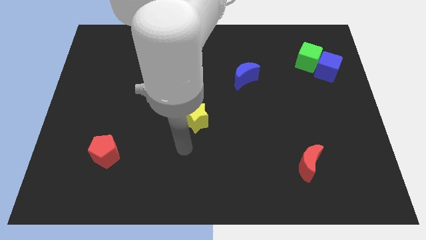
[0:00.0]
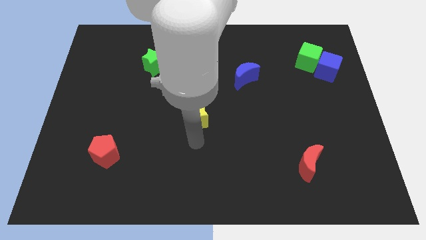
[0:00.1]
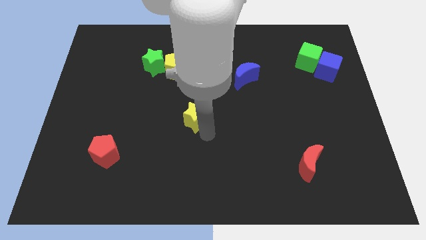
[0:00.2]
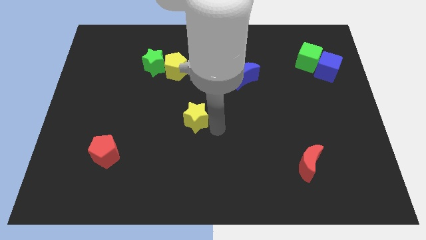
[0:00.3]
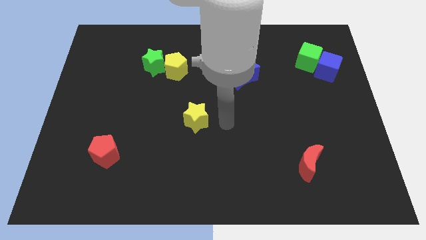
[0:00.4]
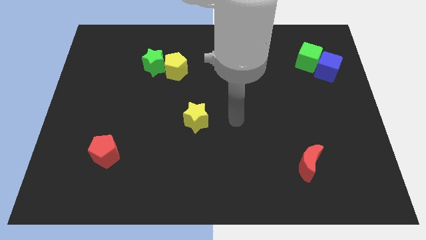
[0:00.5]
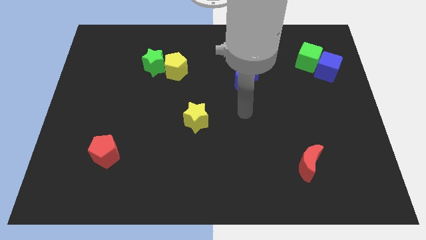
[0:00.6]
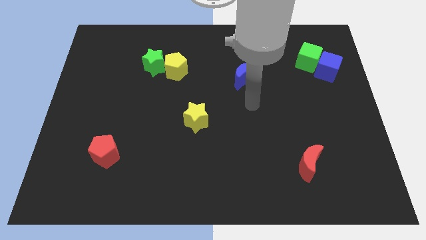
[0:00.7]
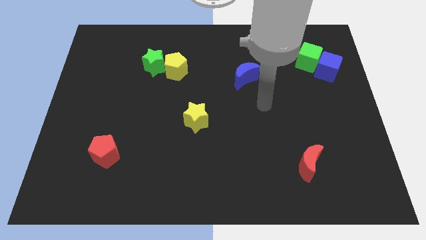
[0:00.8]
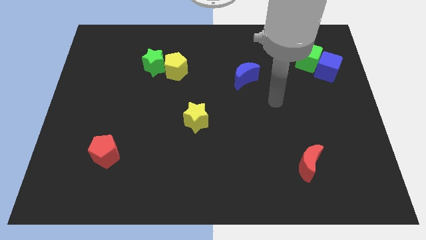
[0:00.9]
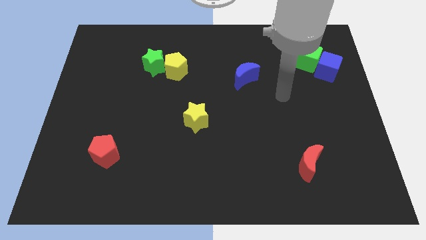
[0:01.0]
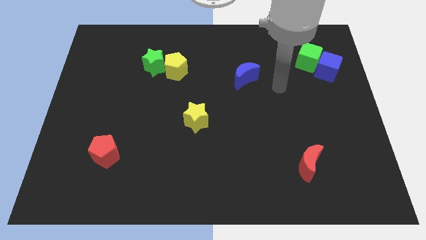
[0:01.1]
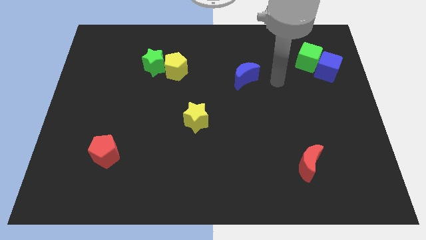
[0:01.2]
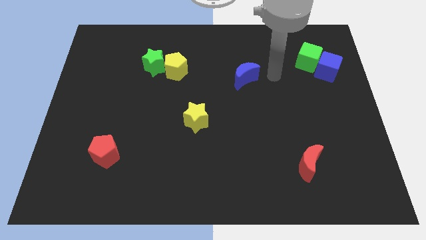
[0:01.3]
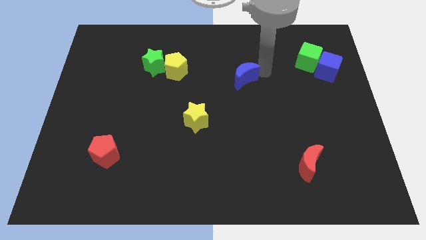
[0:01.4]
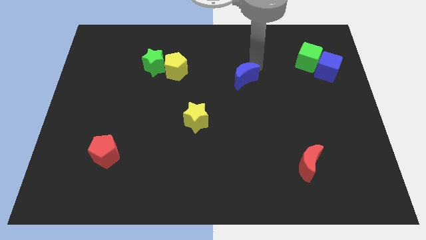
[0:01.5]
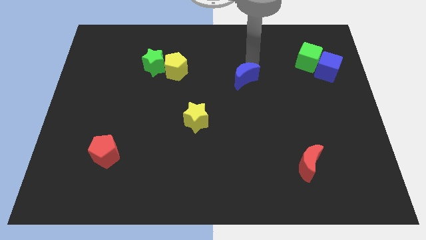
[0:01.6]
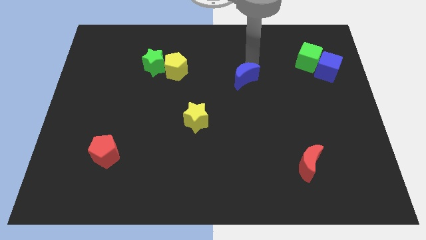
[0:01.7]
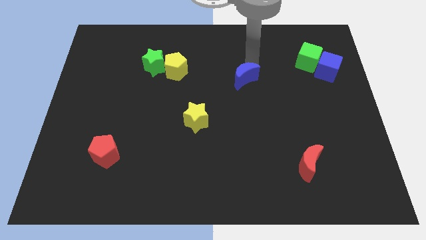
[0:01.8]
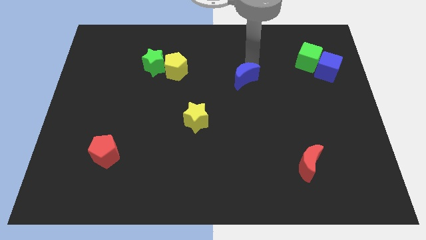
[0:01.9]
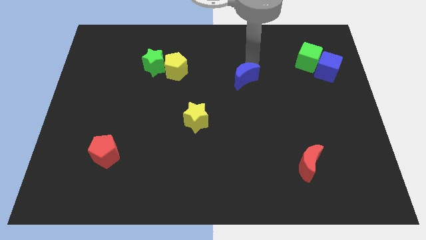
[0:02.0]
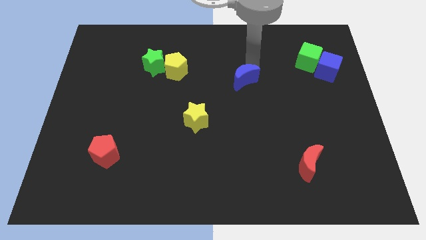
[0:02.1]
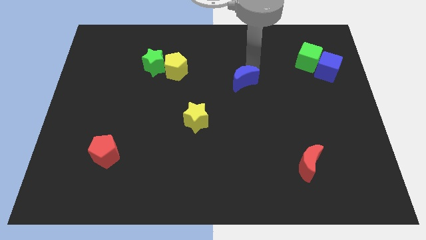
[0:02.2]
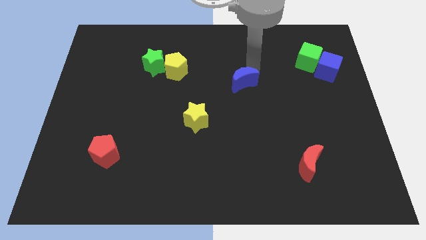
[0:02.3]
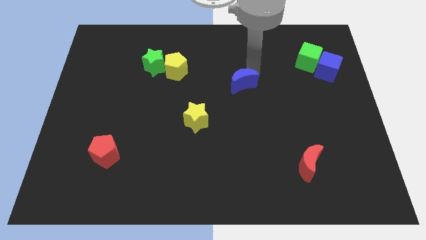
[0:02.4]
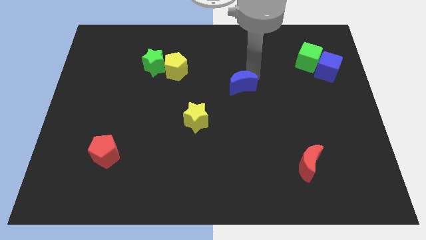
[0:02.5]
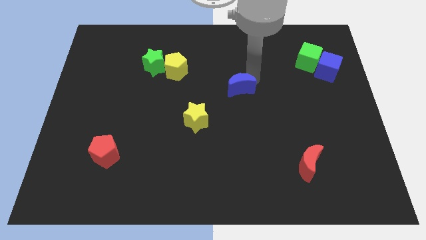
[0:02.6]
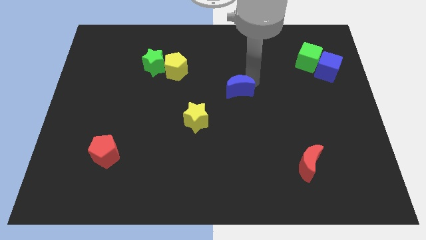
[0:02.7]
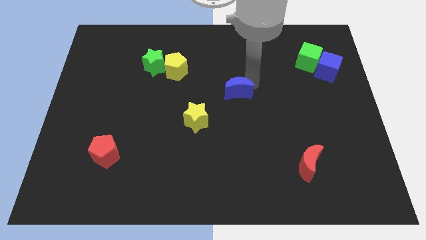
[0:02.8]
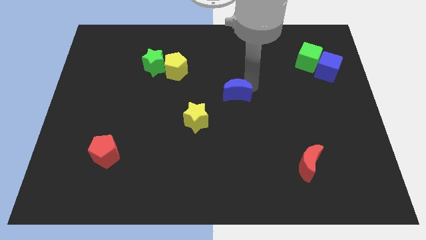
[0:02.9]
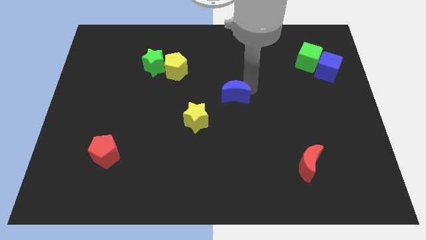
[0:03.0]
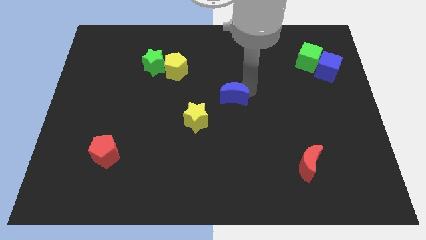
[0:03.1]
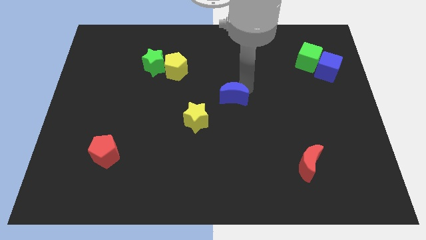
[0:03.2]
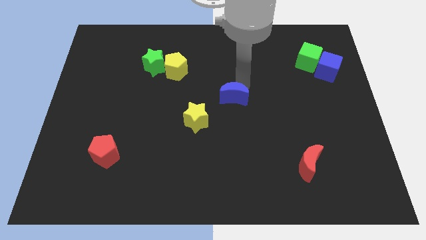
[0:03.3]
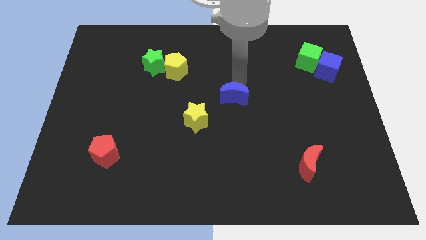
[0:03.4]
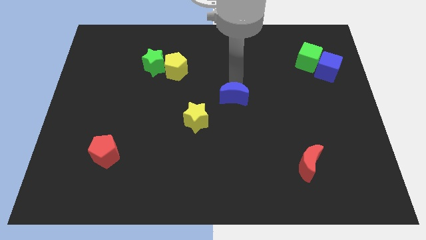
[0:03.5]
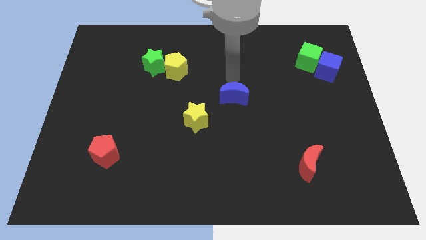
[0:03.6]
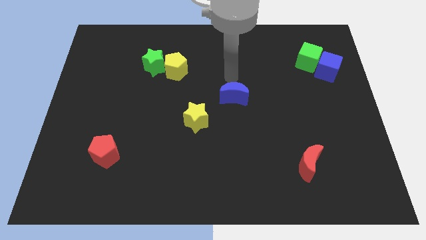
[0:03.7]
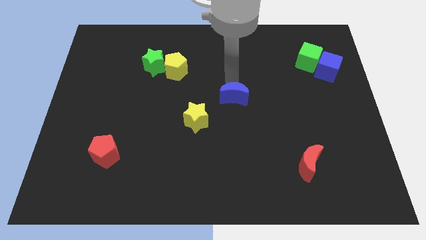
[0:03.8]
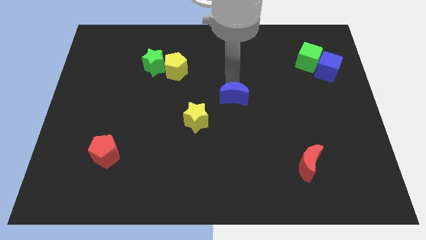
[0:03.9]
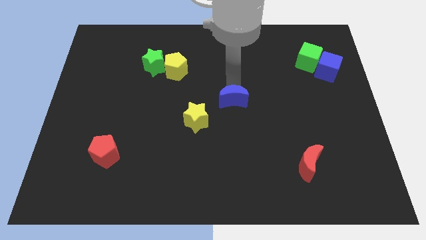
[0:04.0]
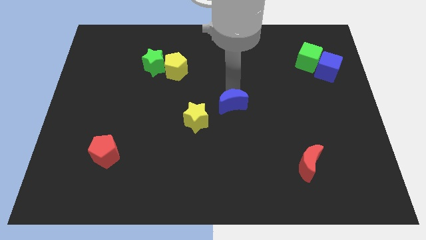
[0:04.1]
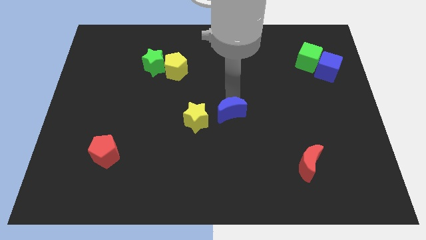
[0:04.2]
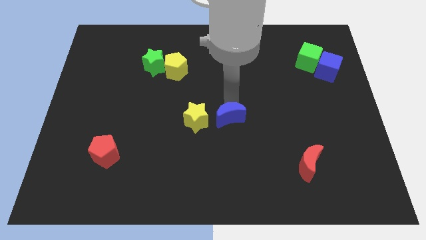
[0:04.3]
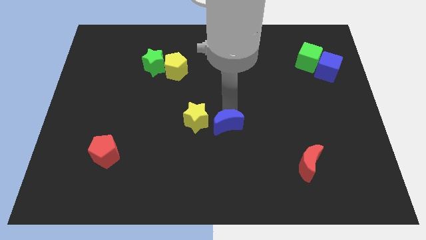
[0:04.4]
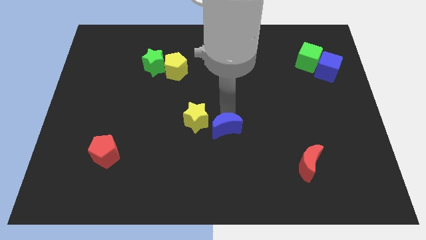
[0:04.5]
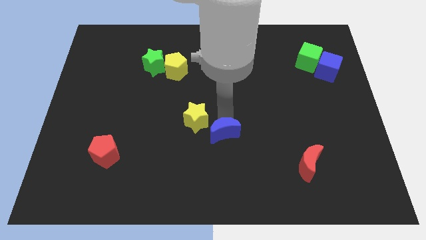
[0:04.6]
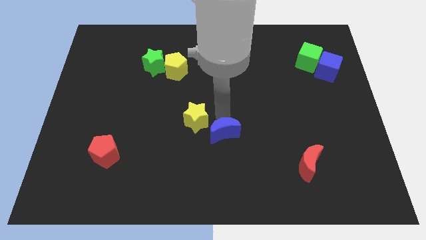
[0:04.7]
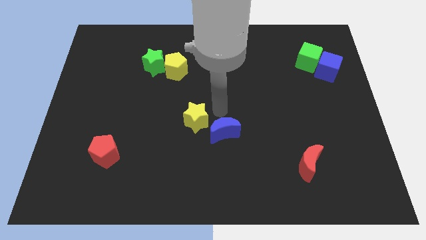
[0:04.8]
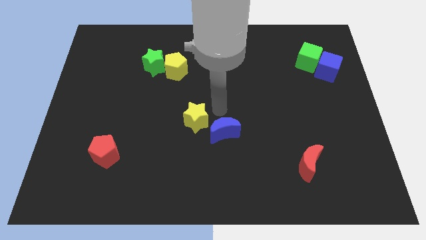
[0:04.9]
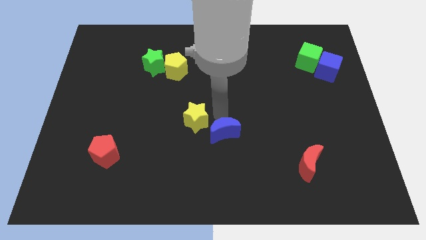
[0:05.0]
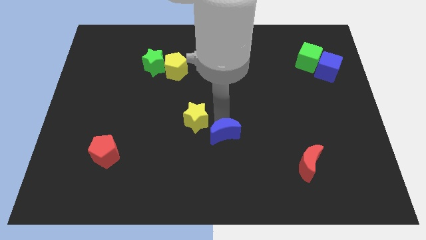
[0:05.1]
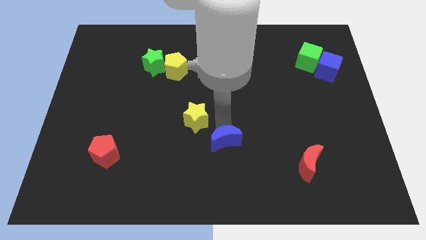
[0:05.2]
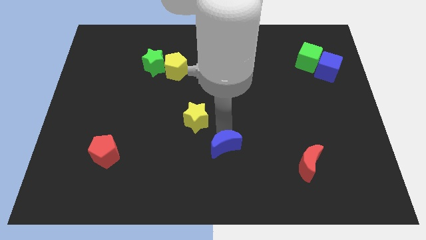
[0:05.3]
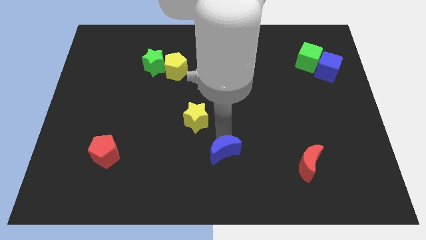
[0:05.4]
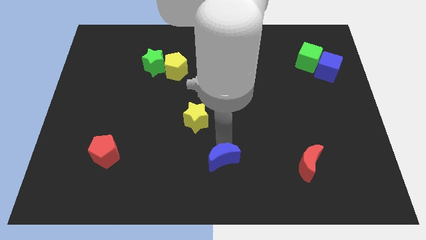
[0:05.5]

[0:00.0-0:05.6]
move the blue moon to the bottom

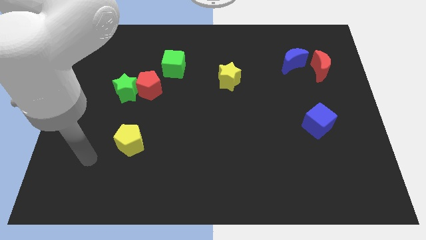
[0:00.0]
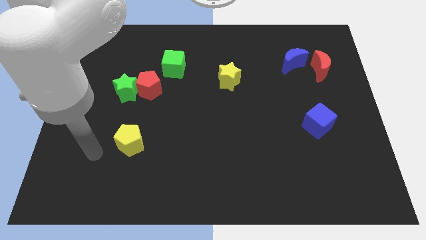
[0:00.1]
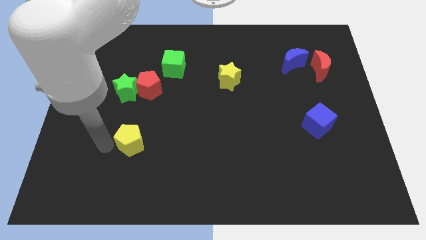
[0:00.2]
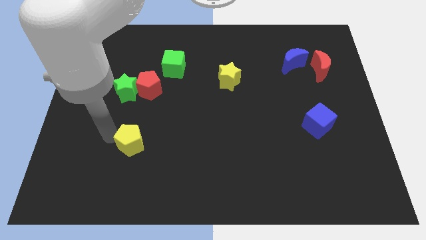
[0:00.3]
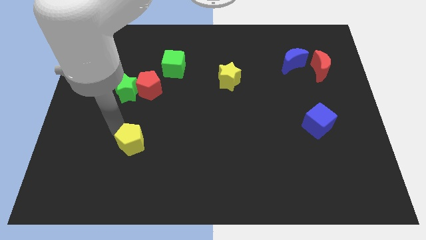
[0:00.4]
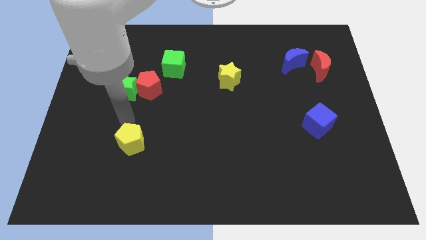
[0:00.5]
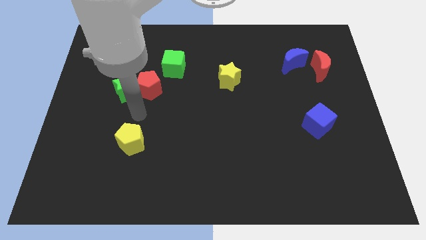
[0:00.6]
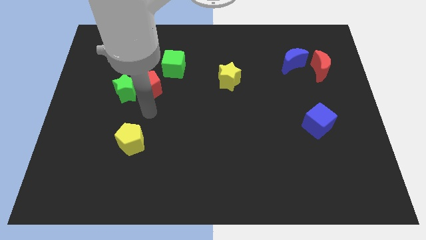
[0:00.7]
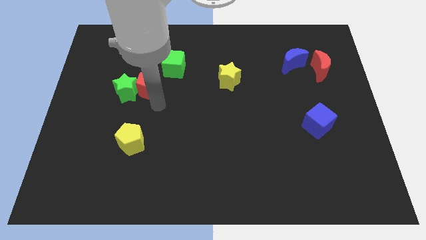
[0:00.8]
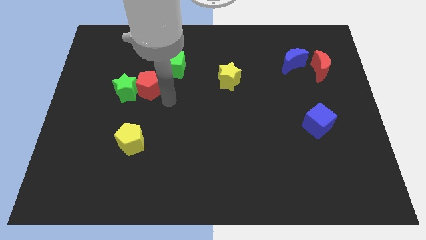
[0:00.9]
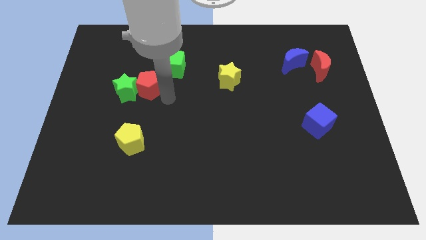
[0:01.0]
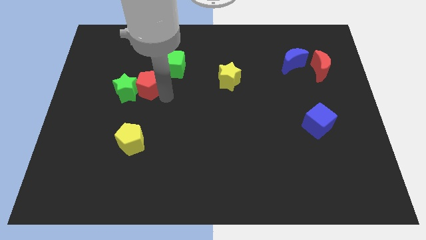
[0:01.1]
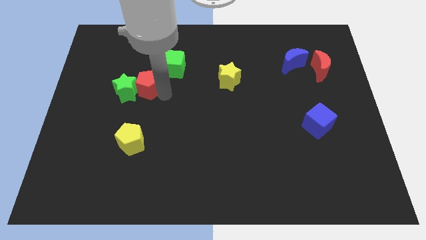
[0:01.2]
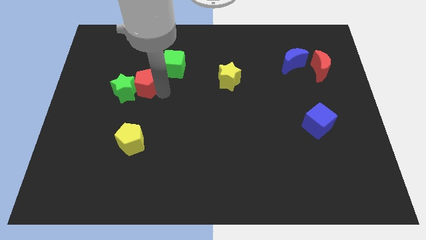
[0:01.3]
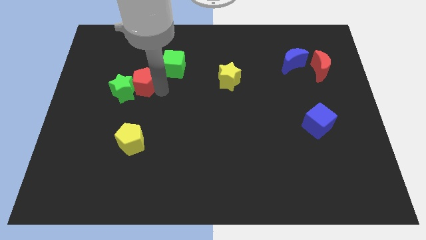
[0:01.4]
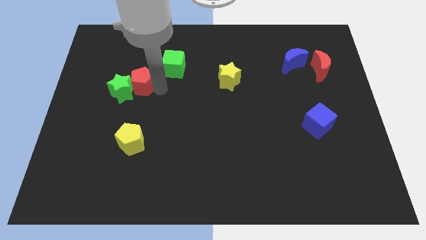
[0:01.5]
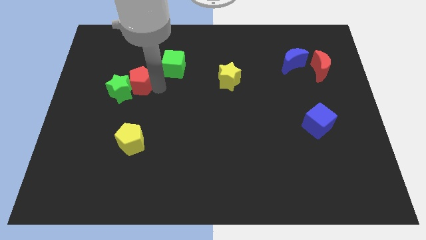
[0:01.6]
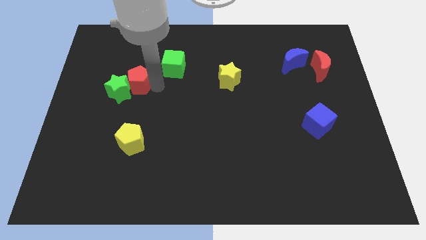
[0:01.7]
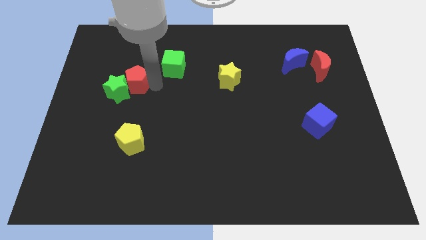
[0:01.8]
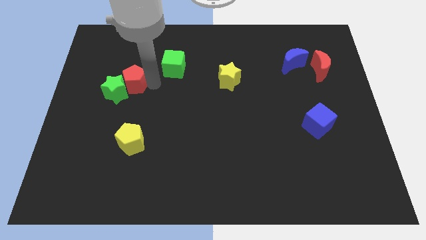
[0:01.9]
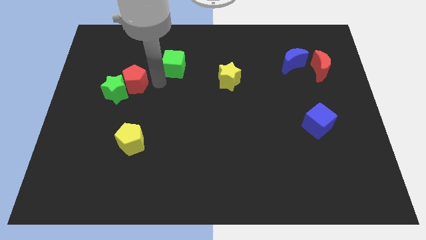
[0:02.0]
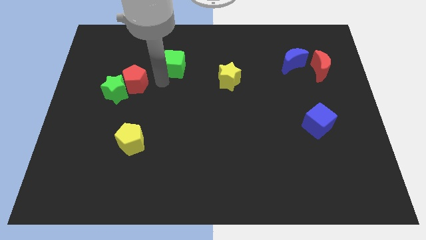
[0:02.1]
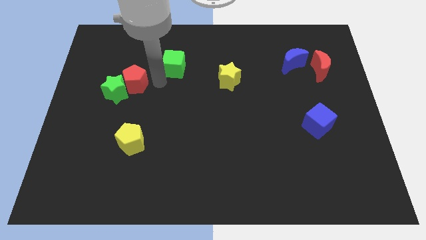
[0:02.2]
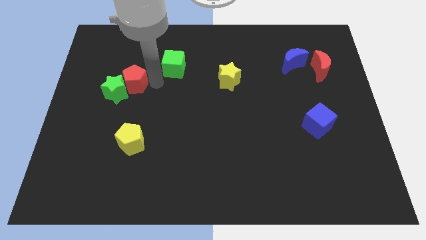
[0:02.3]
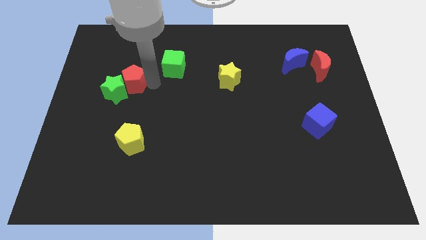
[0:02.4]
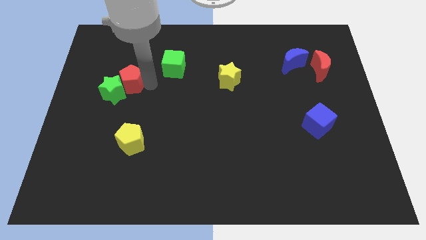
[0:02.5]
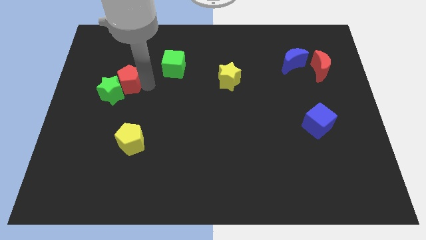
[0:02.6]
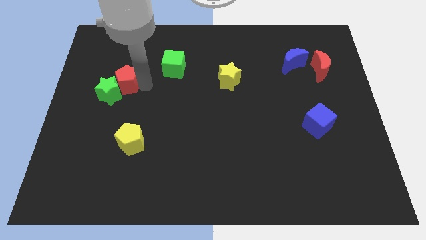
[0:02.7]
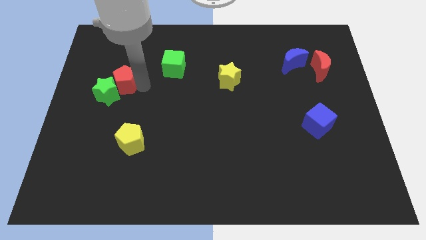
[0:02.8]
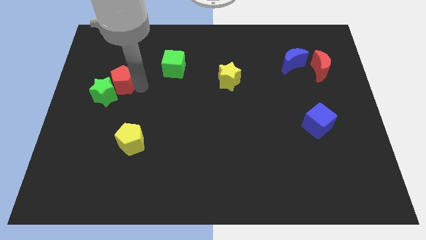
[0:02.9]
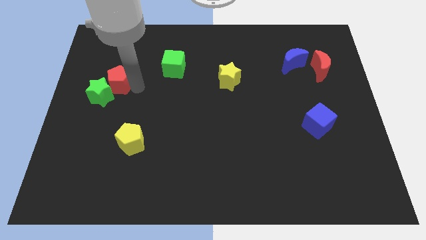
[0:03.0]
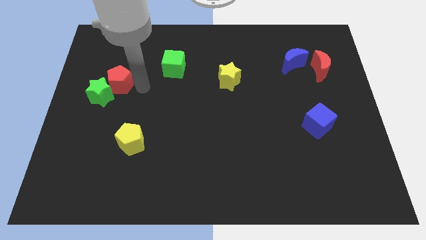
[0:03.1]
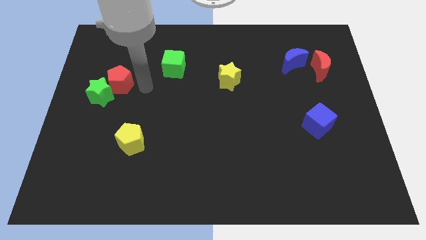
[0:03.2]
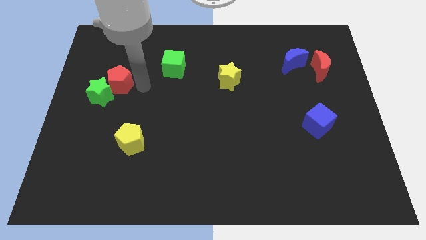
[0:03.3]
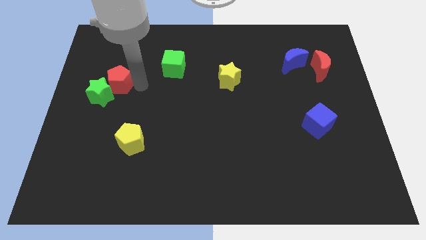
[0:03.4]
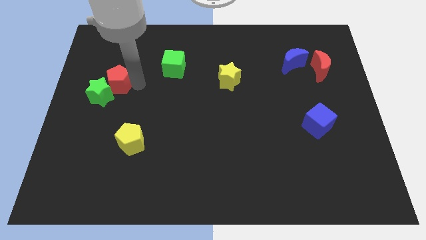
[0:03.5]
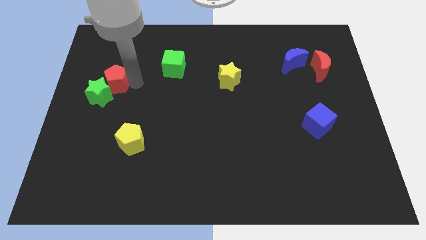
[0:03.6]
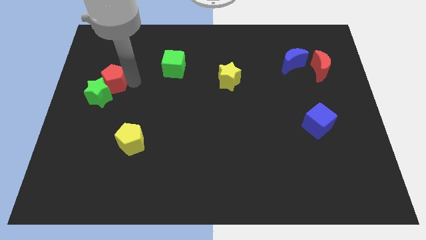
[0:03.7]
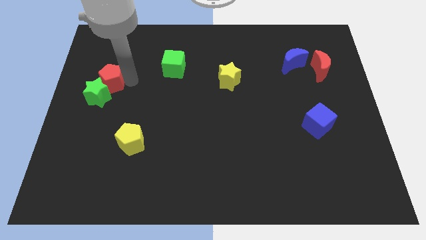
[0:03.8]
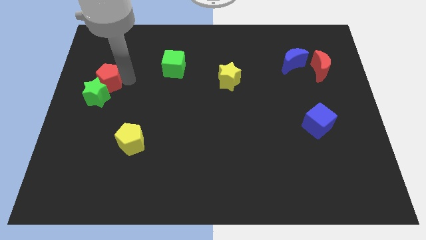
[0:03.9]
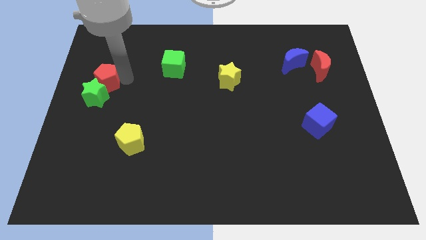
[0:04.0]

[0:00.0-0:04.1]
put the red pentagon to the center left
